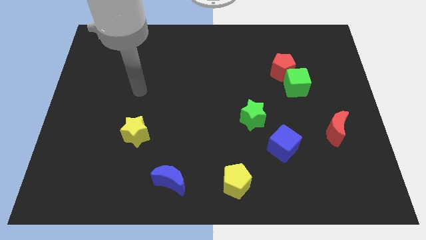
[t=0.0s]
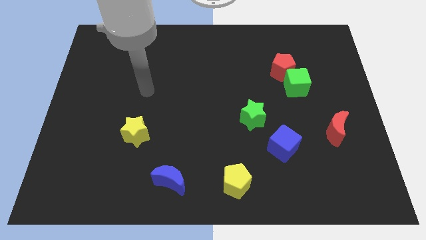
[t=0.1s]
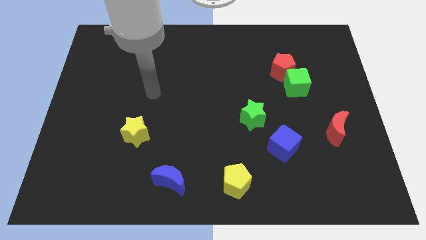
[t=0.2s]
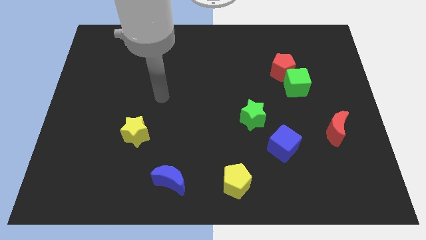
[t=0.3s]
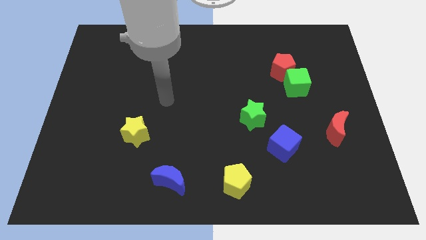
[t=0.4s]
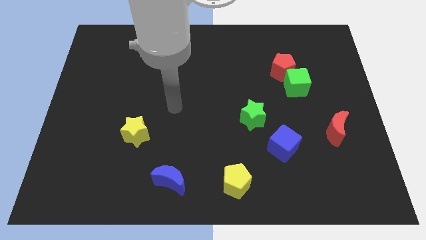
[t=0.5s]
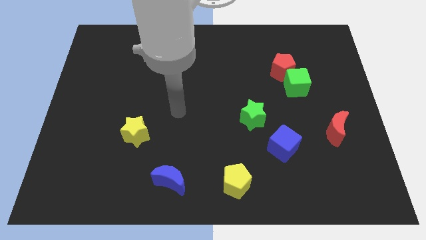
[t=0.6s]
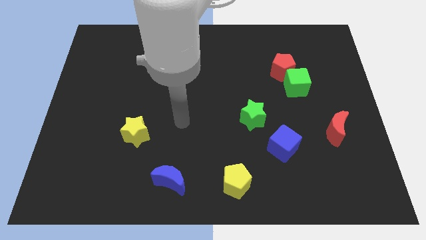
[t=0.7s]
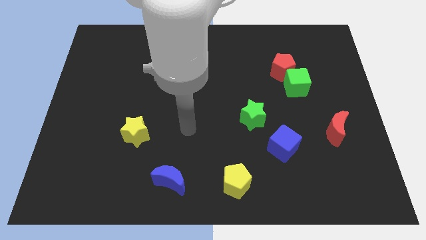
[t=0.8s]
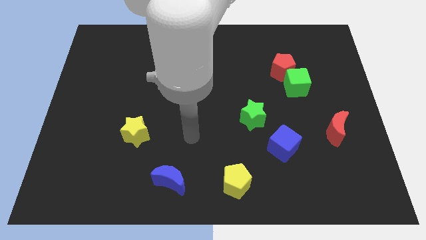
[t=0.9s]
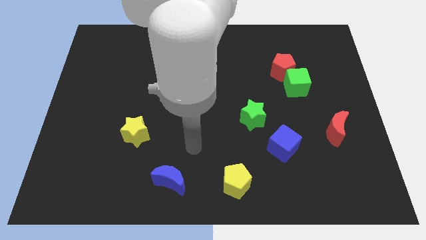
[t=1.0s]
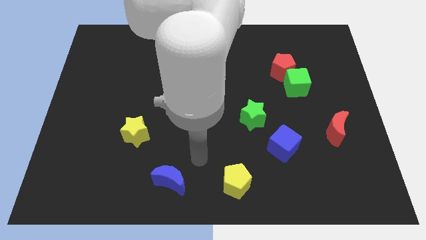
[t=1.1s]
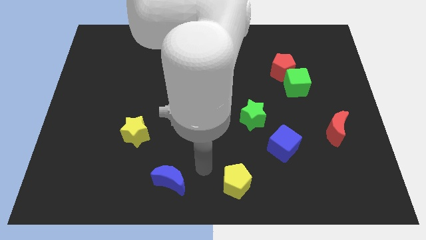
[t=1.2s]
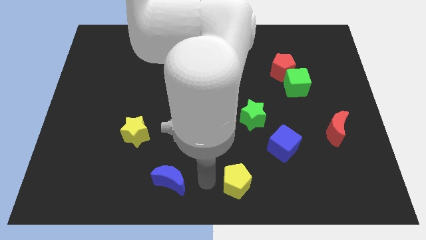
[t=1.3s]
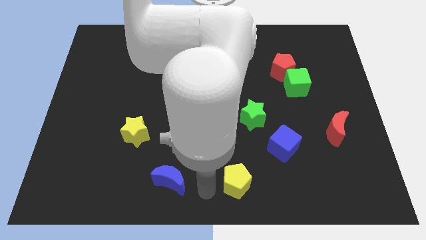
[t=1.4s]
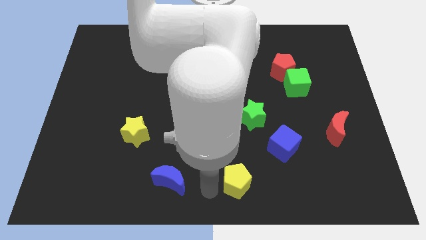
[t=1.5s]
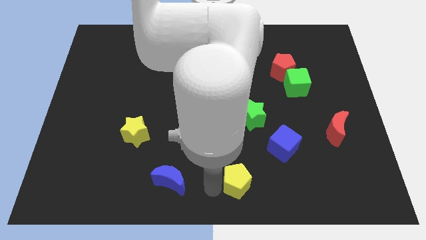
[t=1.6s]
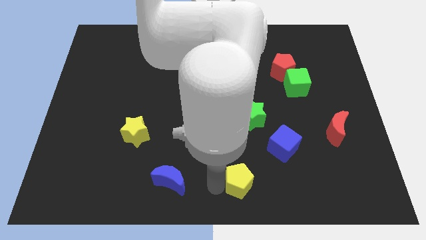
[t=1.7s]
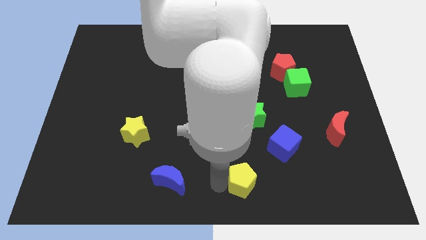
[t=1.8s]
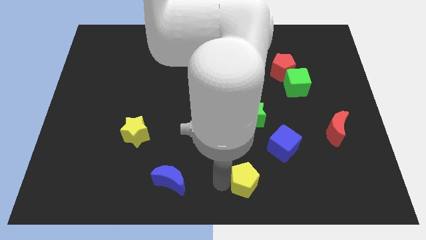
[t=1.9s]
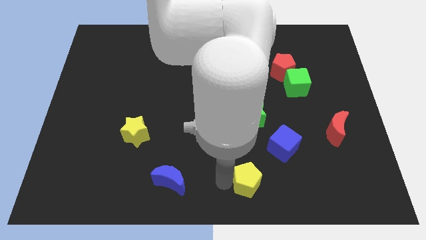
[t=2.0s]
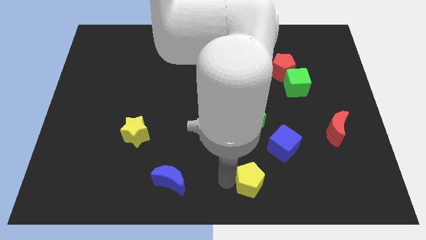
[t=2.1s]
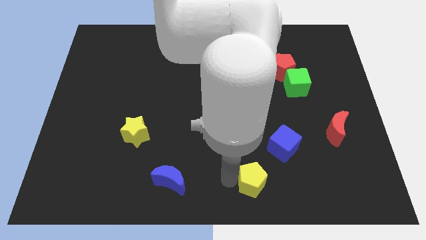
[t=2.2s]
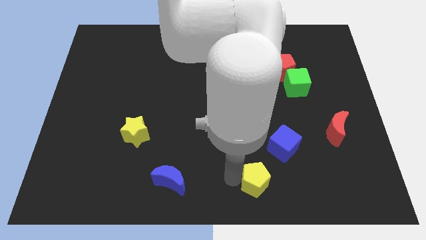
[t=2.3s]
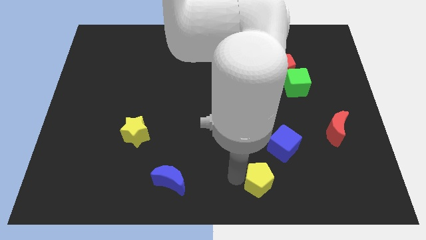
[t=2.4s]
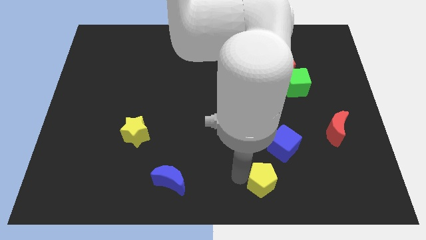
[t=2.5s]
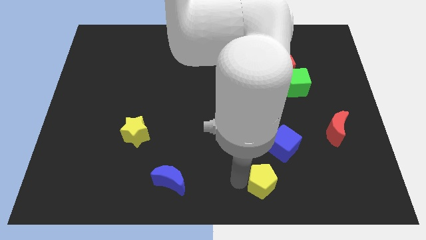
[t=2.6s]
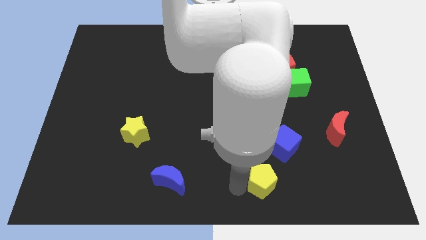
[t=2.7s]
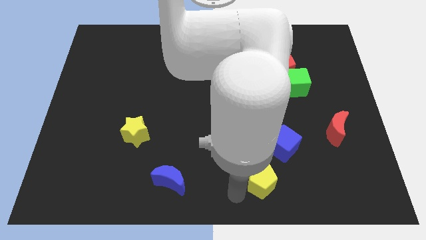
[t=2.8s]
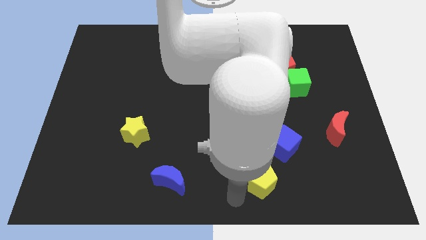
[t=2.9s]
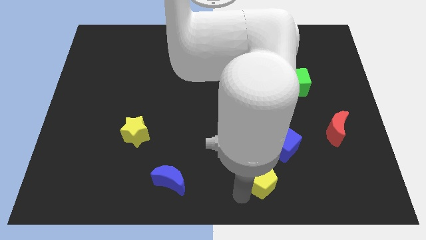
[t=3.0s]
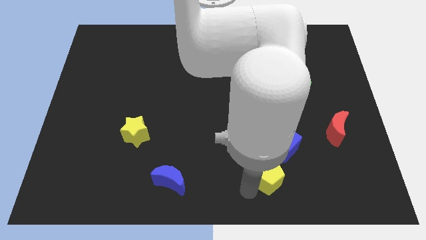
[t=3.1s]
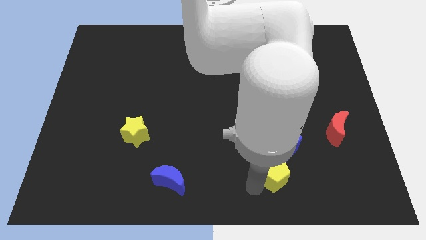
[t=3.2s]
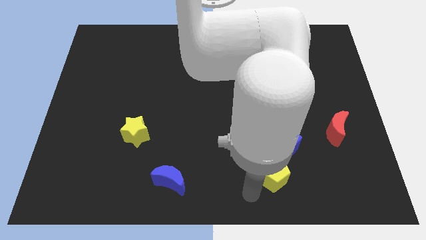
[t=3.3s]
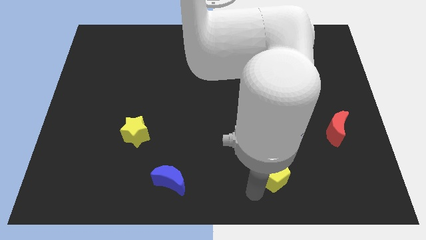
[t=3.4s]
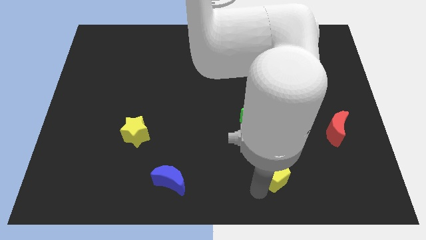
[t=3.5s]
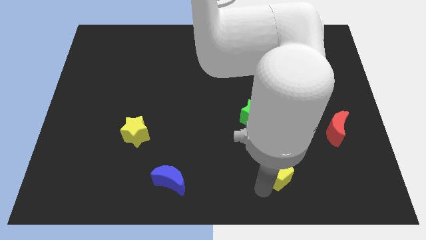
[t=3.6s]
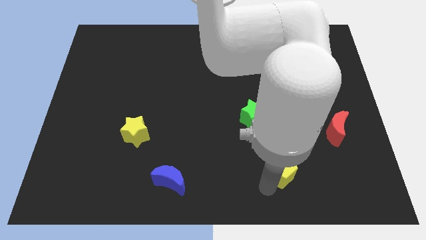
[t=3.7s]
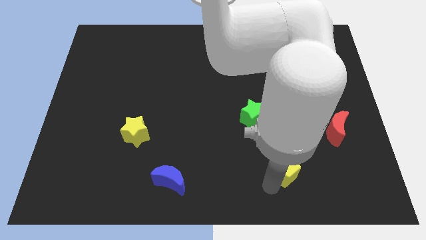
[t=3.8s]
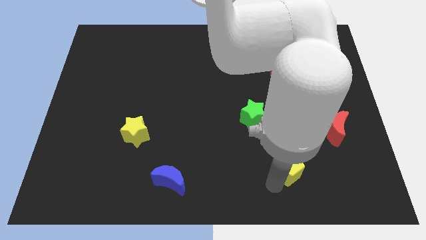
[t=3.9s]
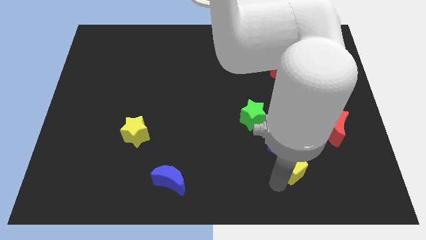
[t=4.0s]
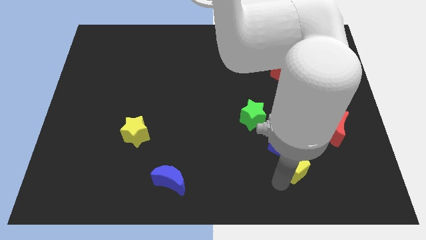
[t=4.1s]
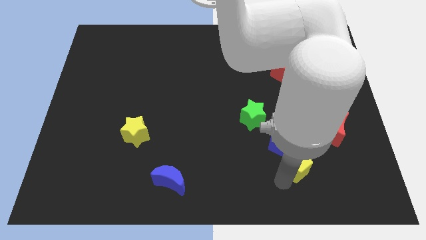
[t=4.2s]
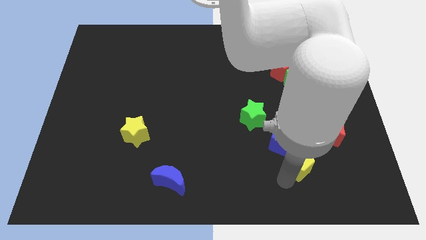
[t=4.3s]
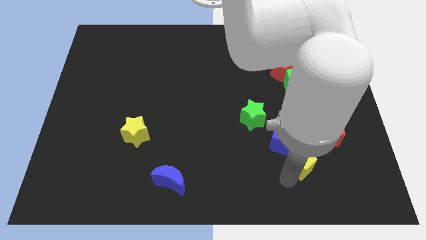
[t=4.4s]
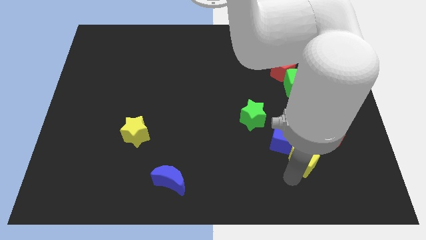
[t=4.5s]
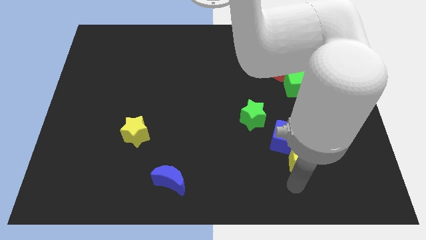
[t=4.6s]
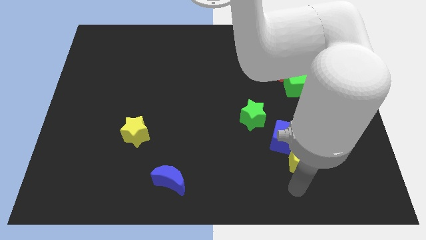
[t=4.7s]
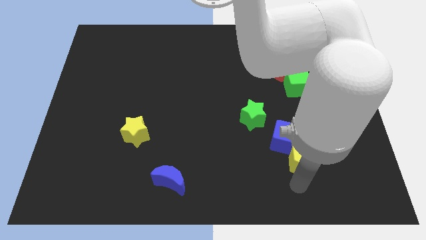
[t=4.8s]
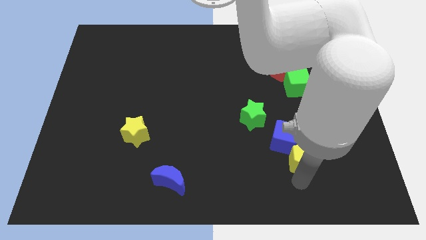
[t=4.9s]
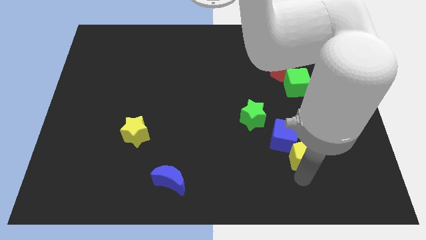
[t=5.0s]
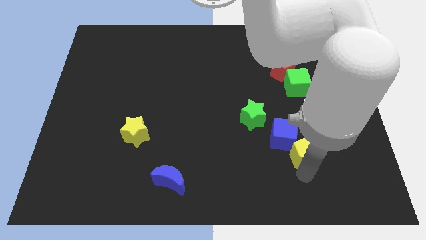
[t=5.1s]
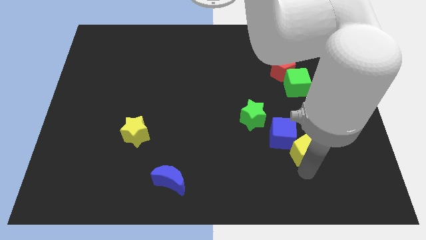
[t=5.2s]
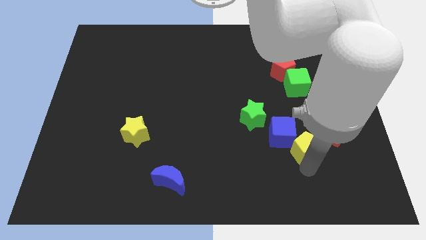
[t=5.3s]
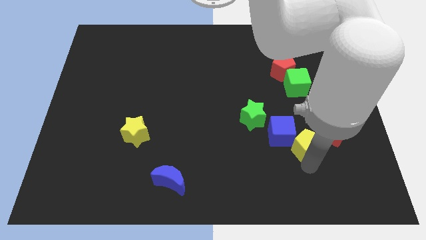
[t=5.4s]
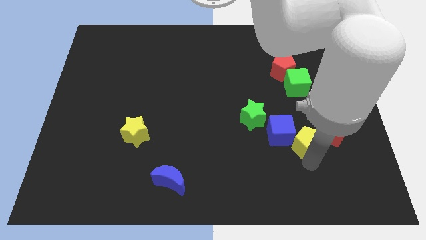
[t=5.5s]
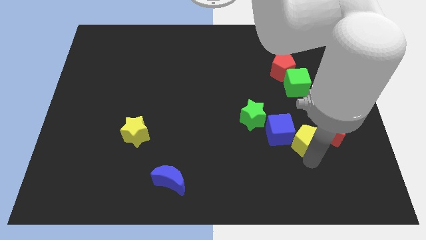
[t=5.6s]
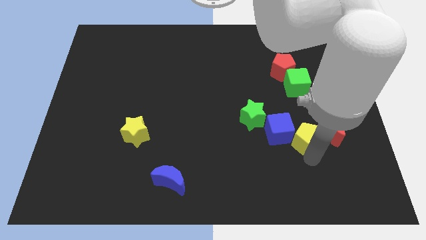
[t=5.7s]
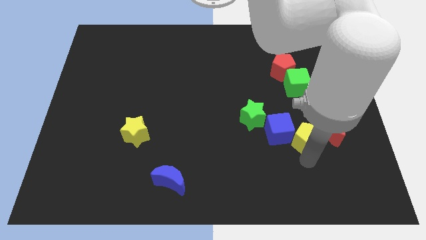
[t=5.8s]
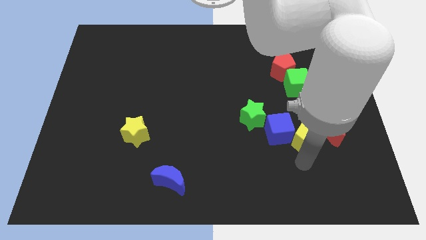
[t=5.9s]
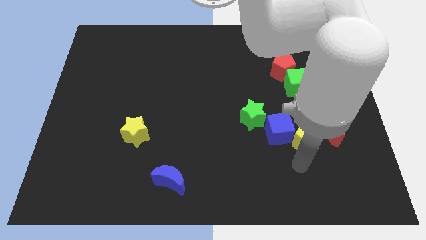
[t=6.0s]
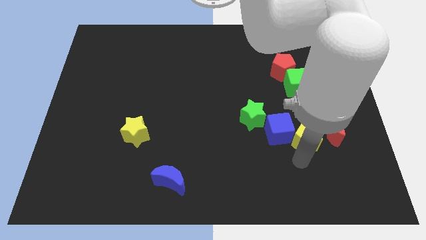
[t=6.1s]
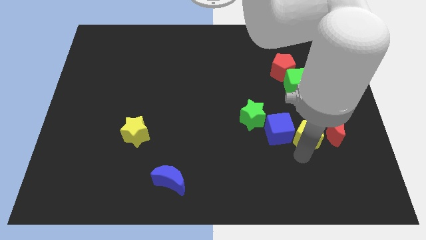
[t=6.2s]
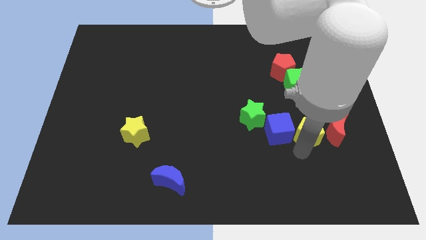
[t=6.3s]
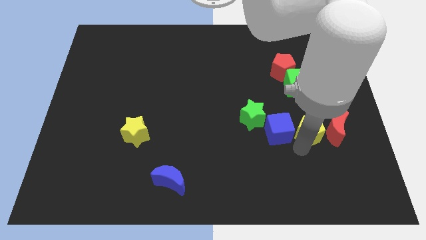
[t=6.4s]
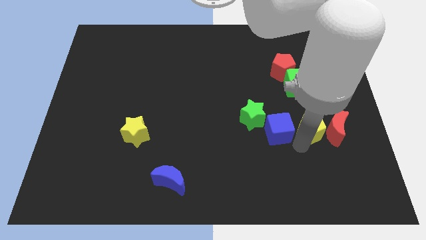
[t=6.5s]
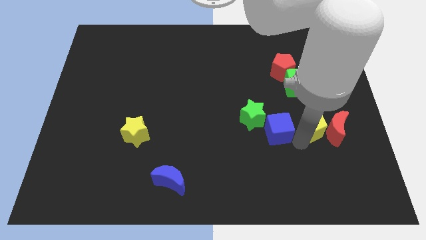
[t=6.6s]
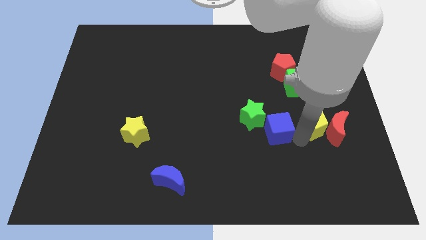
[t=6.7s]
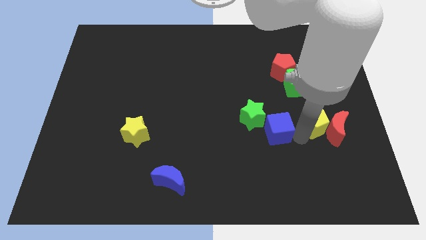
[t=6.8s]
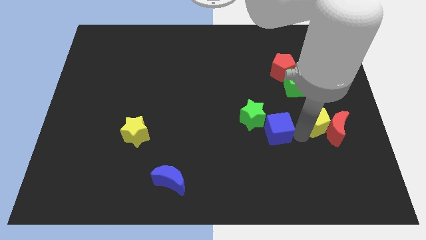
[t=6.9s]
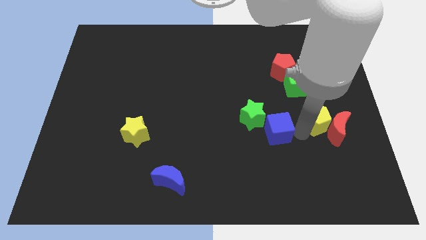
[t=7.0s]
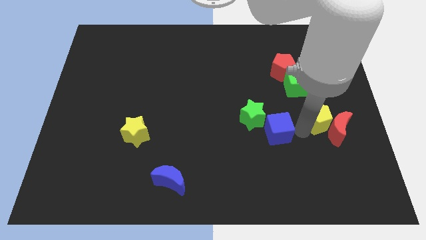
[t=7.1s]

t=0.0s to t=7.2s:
slide the yellow pentagon to the top side of the red moon
